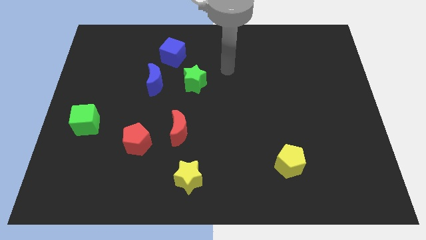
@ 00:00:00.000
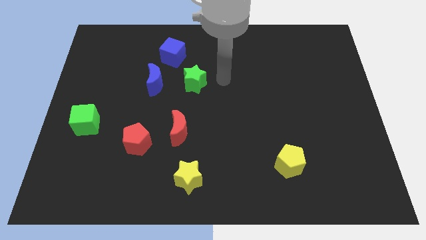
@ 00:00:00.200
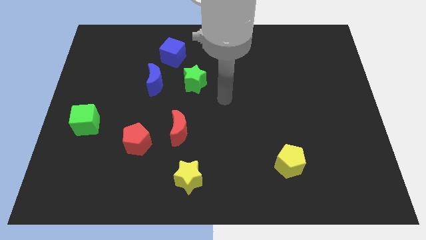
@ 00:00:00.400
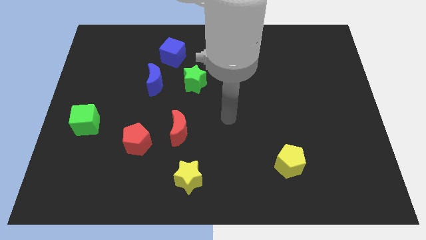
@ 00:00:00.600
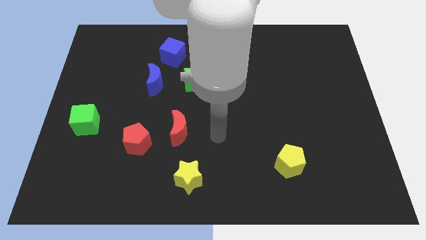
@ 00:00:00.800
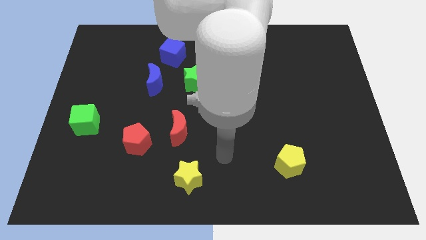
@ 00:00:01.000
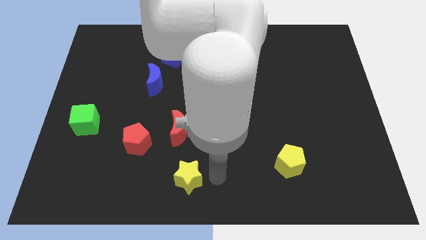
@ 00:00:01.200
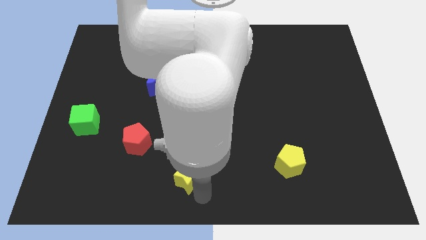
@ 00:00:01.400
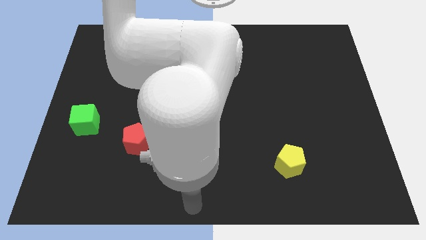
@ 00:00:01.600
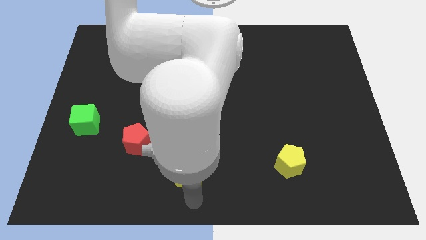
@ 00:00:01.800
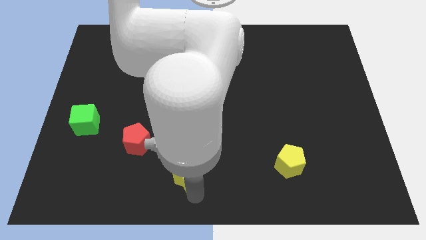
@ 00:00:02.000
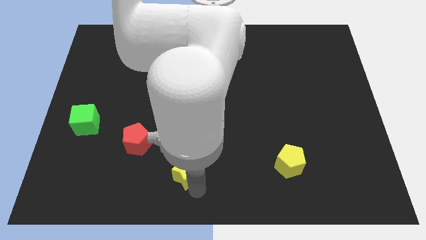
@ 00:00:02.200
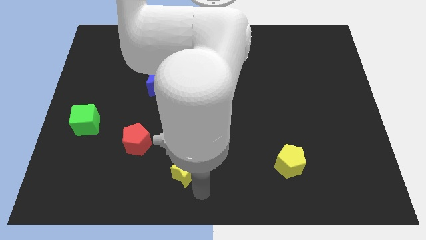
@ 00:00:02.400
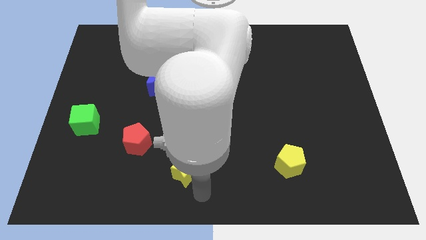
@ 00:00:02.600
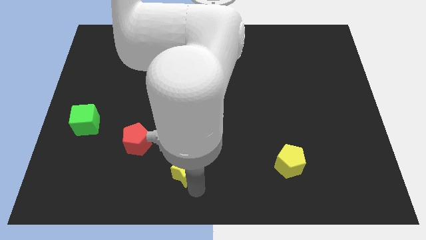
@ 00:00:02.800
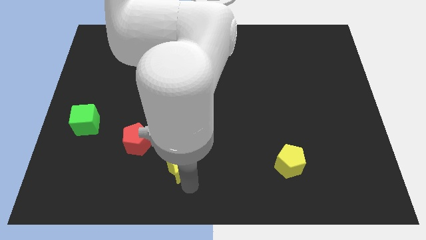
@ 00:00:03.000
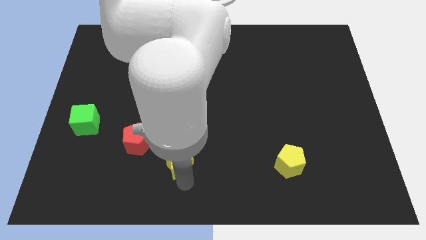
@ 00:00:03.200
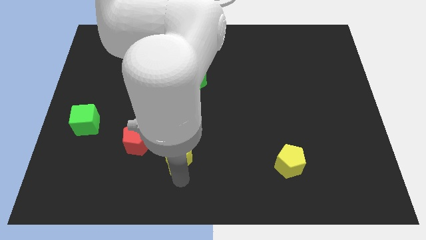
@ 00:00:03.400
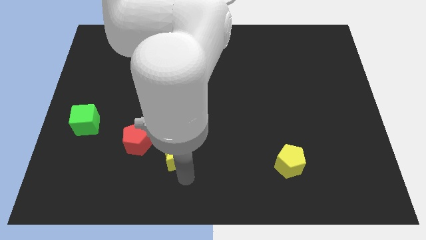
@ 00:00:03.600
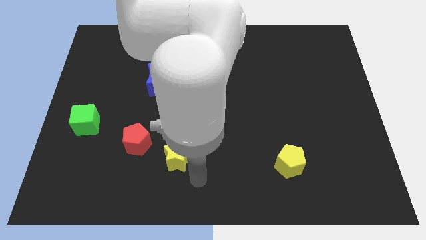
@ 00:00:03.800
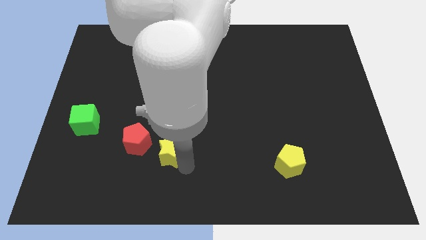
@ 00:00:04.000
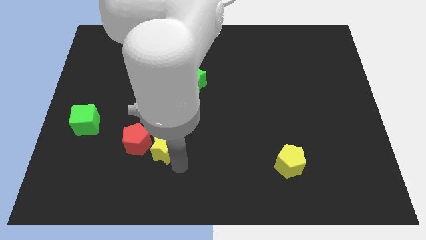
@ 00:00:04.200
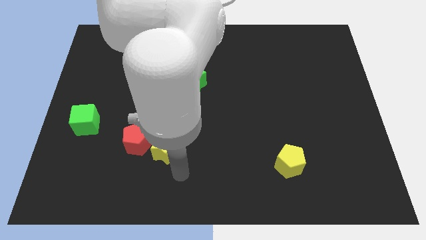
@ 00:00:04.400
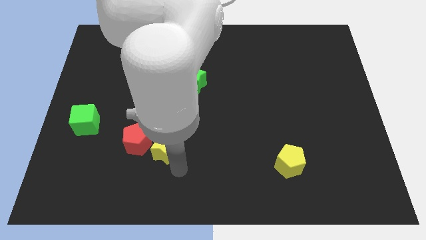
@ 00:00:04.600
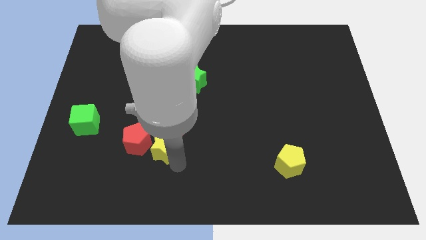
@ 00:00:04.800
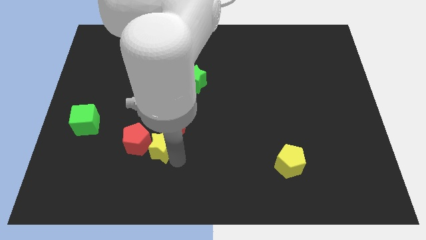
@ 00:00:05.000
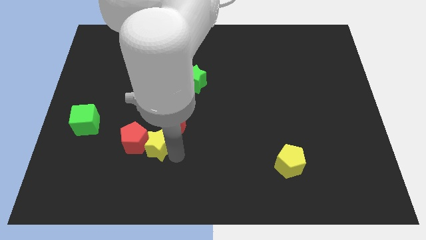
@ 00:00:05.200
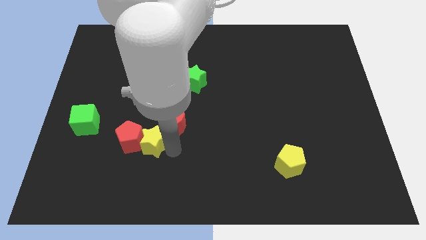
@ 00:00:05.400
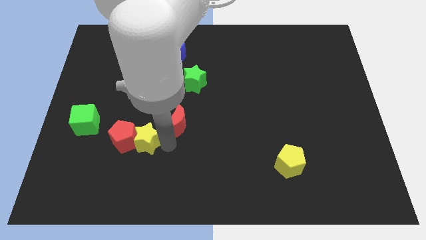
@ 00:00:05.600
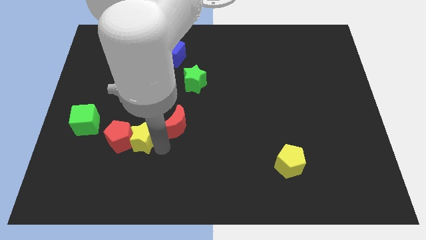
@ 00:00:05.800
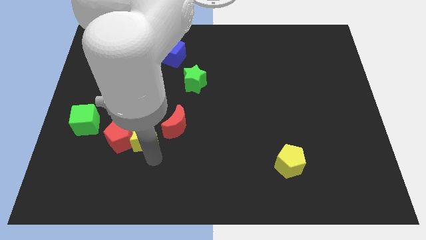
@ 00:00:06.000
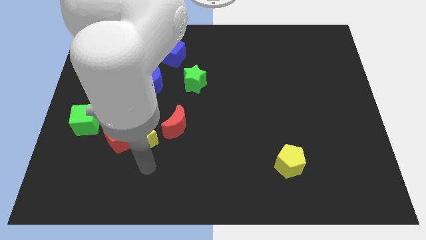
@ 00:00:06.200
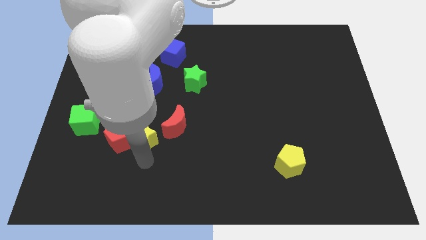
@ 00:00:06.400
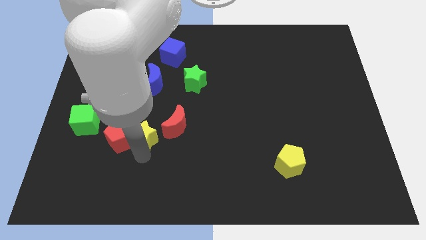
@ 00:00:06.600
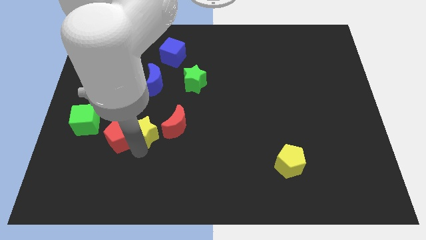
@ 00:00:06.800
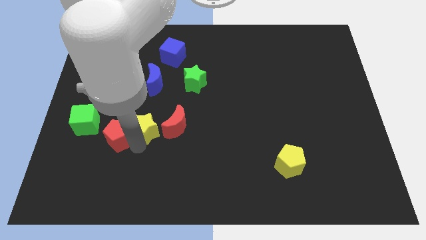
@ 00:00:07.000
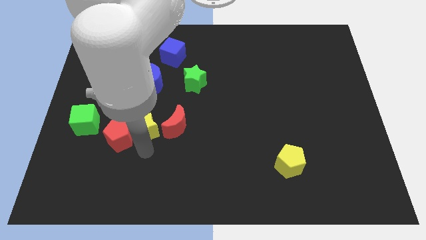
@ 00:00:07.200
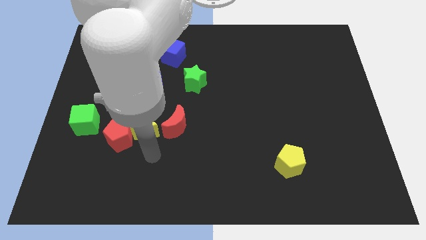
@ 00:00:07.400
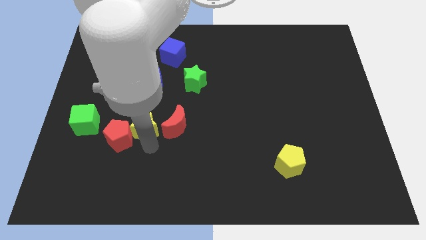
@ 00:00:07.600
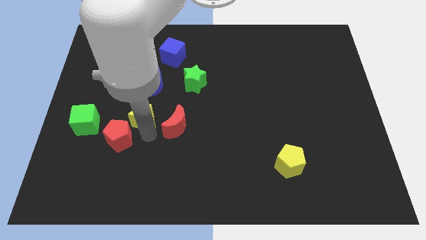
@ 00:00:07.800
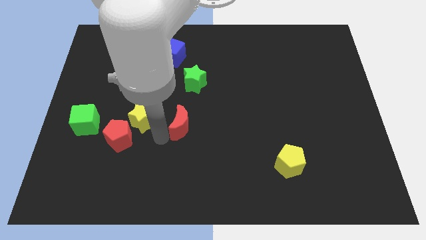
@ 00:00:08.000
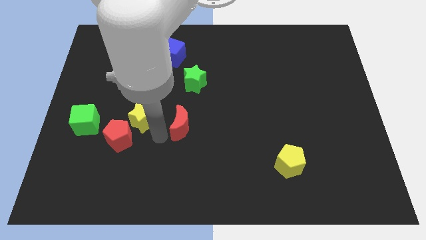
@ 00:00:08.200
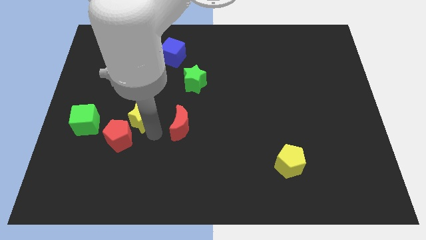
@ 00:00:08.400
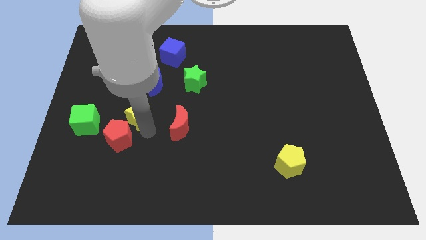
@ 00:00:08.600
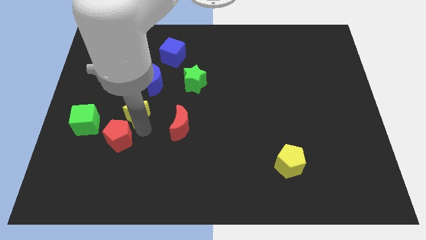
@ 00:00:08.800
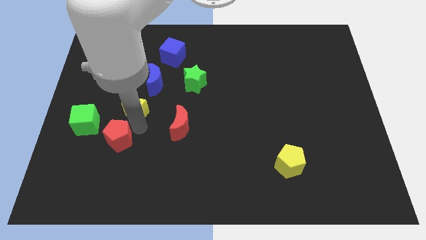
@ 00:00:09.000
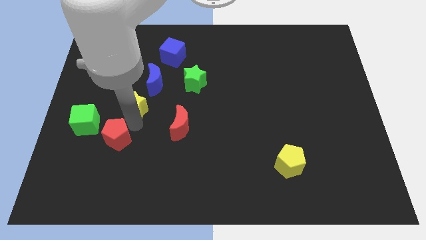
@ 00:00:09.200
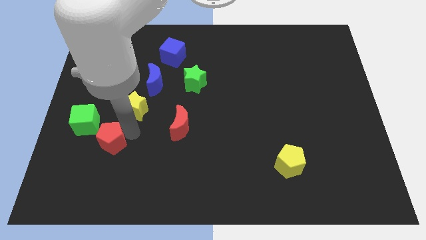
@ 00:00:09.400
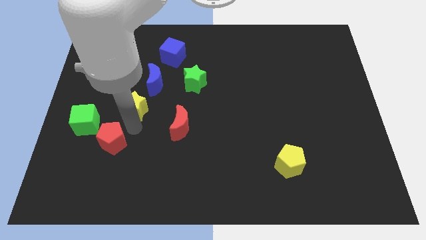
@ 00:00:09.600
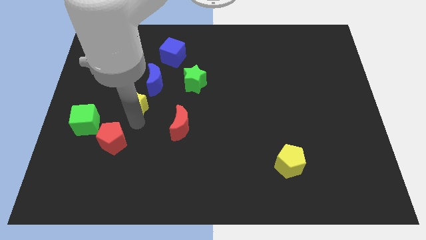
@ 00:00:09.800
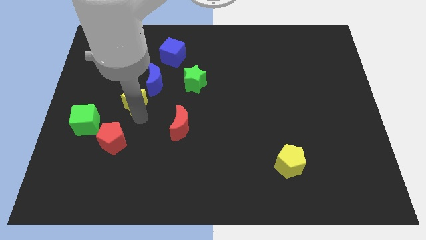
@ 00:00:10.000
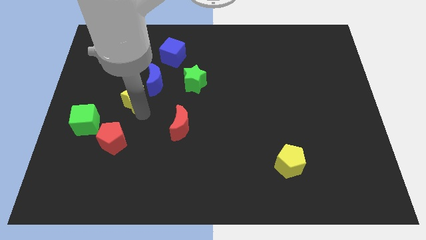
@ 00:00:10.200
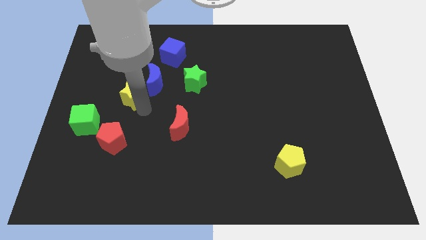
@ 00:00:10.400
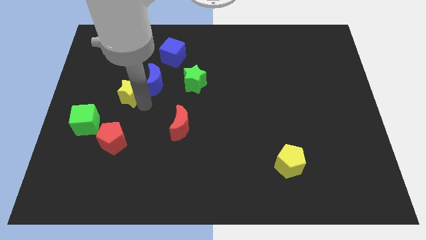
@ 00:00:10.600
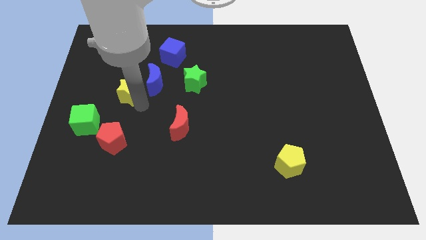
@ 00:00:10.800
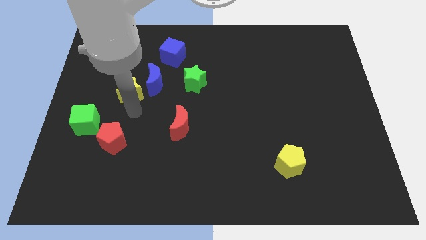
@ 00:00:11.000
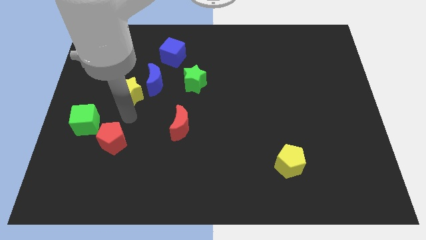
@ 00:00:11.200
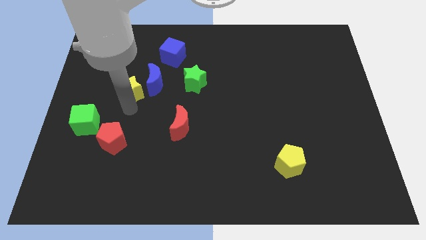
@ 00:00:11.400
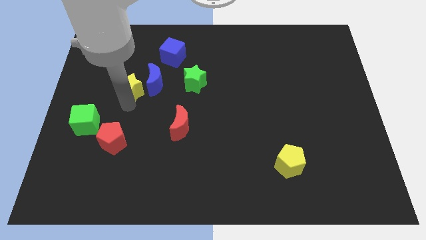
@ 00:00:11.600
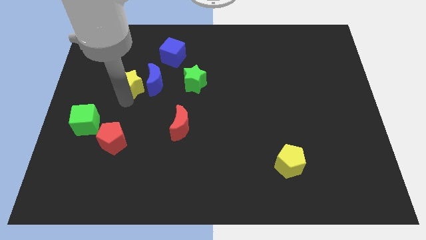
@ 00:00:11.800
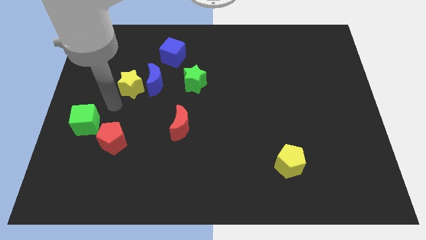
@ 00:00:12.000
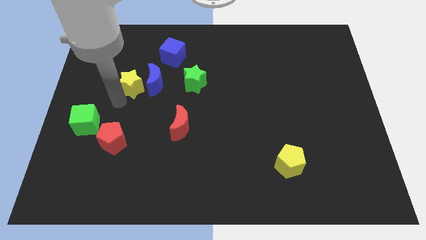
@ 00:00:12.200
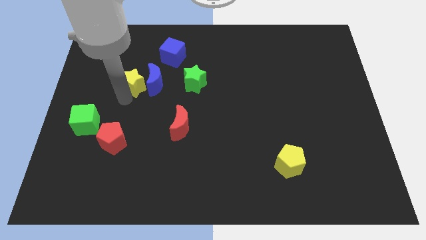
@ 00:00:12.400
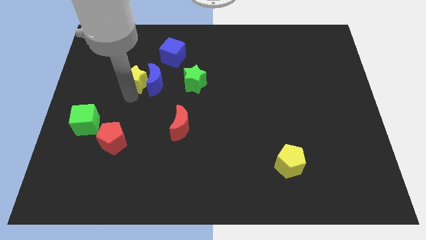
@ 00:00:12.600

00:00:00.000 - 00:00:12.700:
push the yellow star diagonally down and to the left of the blue cube

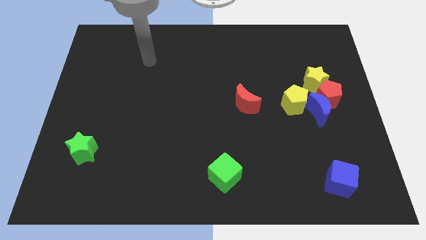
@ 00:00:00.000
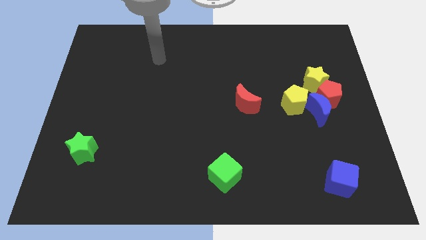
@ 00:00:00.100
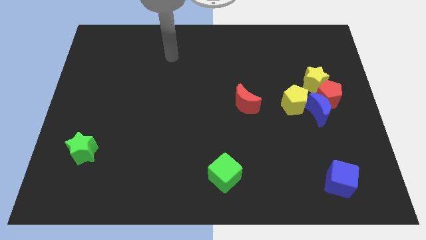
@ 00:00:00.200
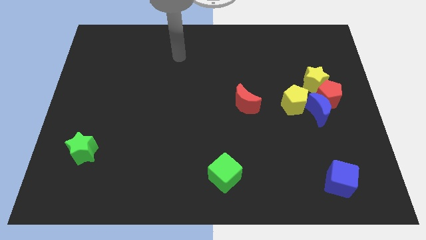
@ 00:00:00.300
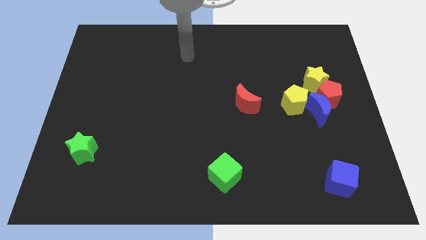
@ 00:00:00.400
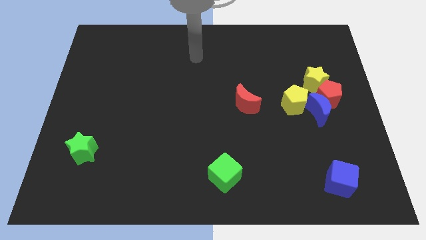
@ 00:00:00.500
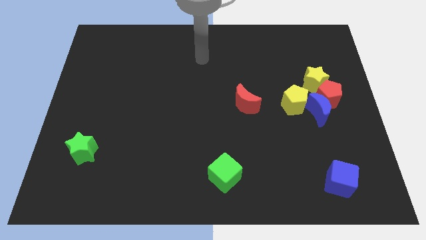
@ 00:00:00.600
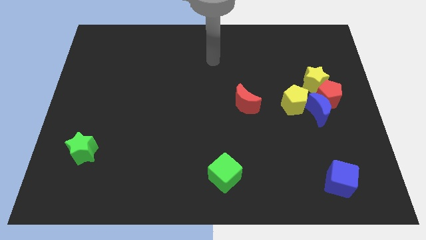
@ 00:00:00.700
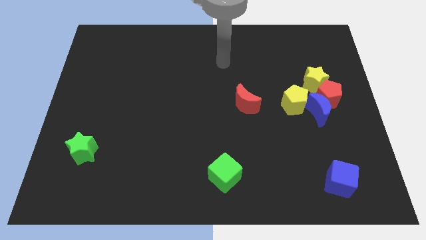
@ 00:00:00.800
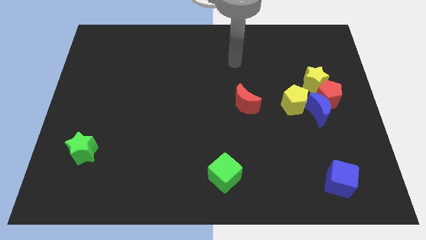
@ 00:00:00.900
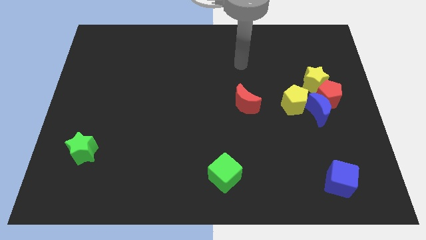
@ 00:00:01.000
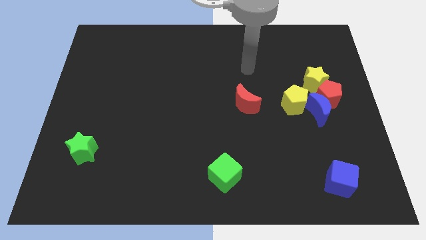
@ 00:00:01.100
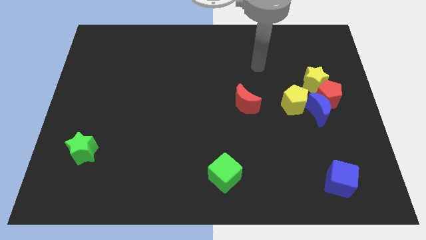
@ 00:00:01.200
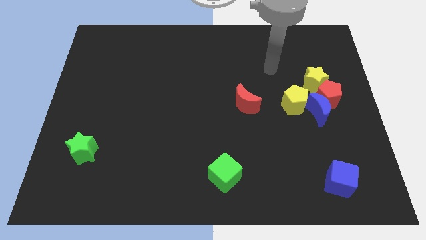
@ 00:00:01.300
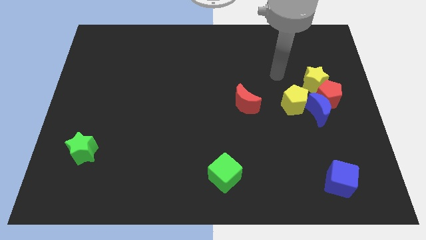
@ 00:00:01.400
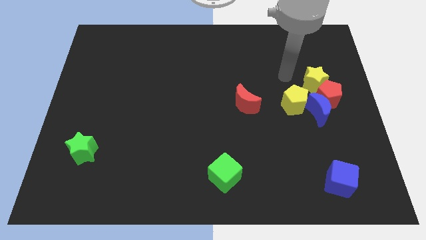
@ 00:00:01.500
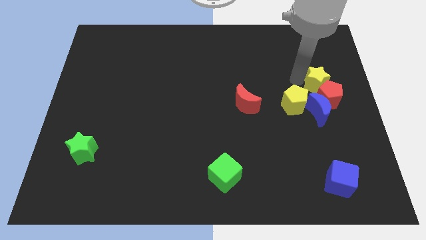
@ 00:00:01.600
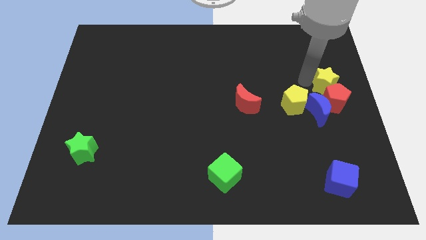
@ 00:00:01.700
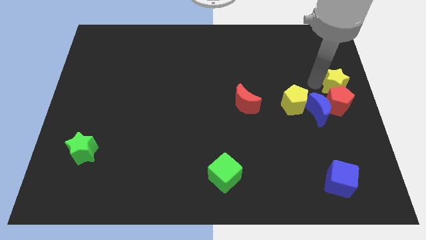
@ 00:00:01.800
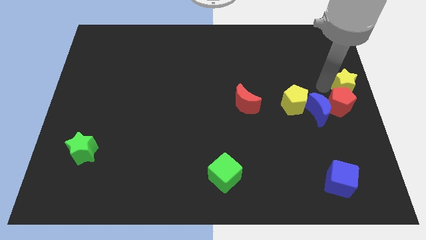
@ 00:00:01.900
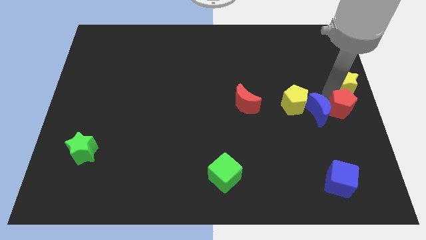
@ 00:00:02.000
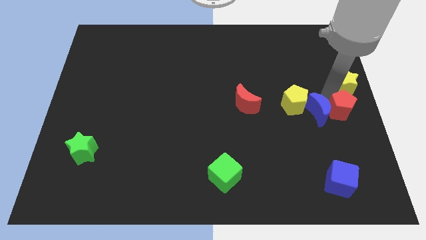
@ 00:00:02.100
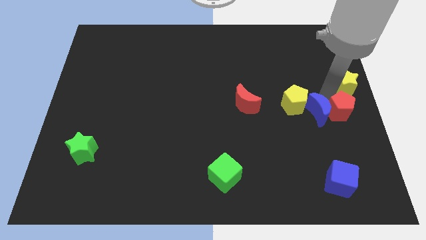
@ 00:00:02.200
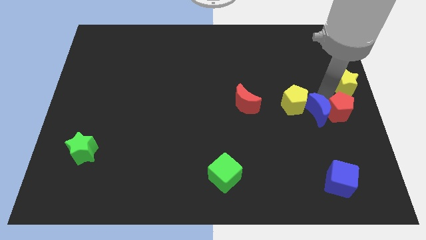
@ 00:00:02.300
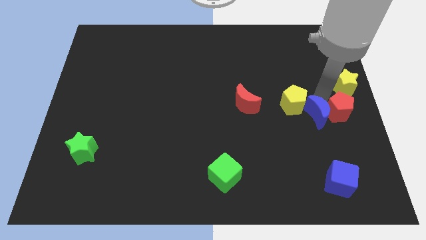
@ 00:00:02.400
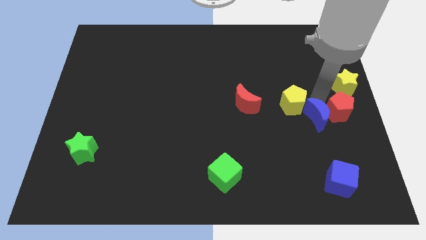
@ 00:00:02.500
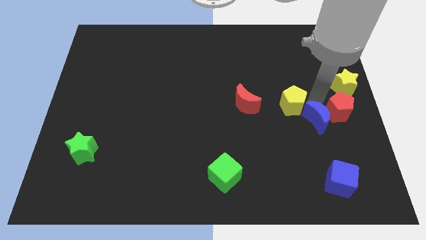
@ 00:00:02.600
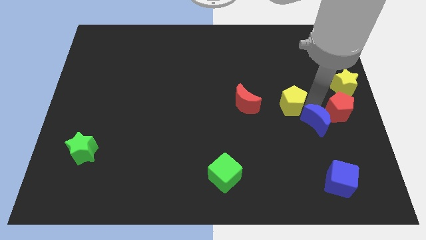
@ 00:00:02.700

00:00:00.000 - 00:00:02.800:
move the blue moon to the bottom side of the yellow pentagon
